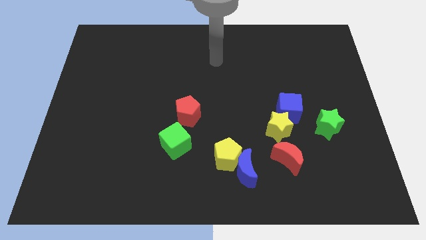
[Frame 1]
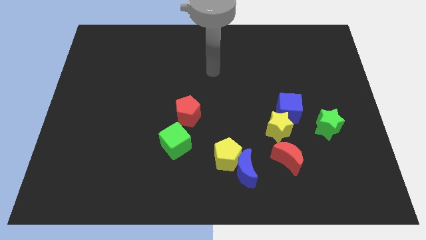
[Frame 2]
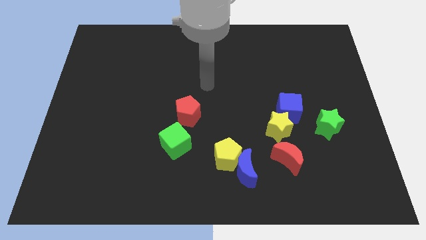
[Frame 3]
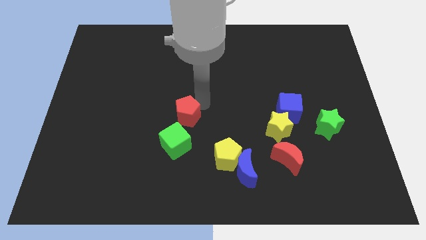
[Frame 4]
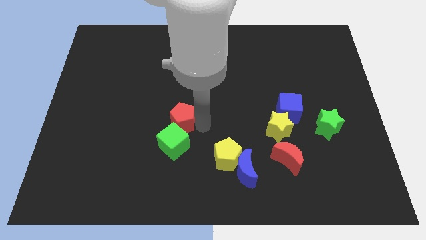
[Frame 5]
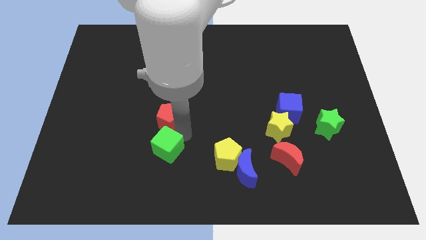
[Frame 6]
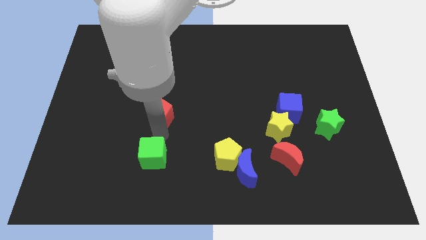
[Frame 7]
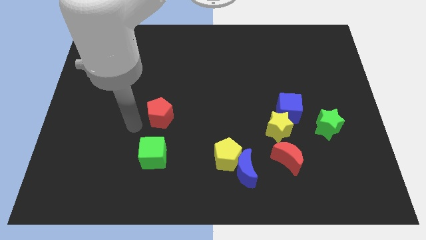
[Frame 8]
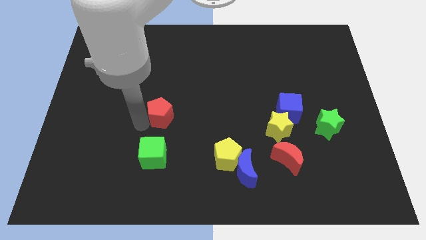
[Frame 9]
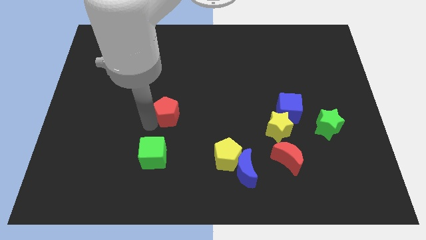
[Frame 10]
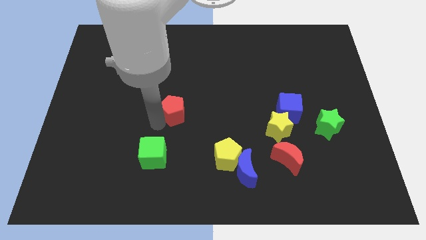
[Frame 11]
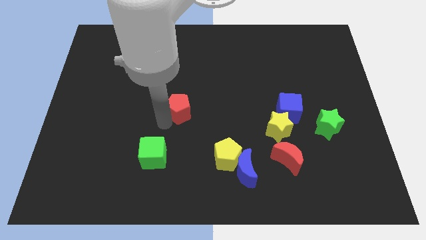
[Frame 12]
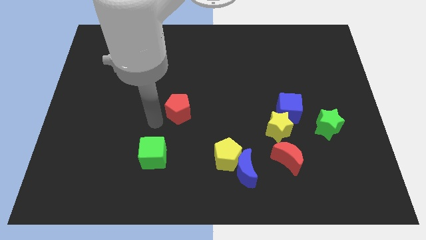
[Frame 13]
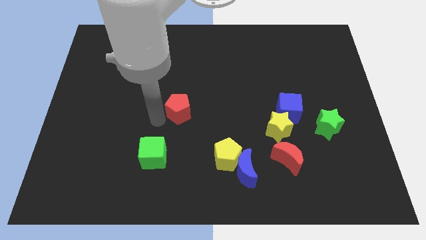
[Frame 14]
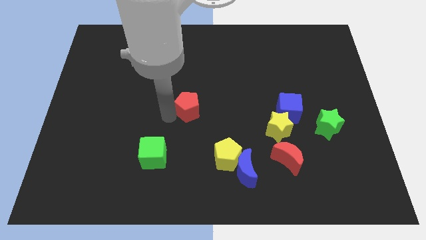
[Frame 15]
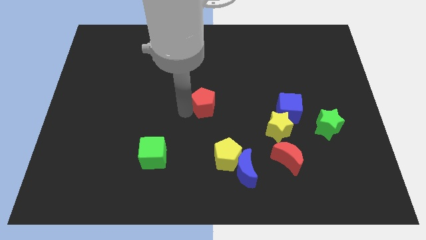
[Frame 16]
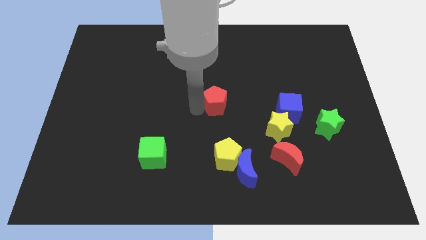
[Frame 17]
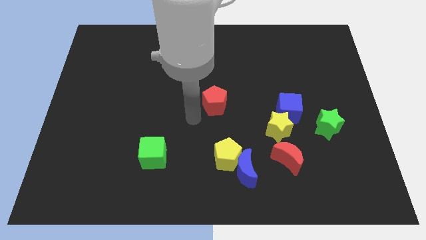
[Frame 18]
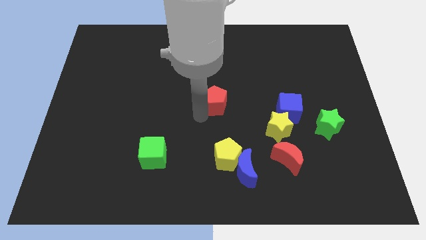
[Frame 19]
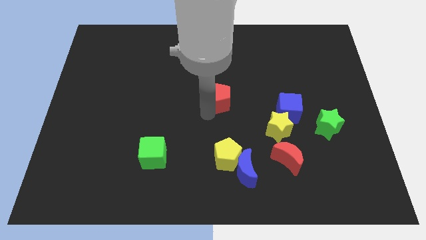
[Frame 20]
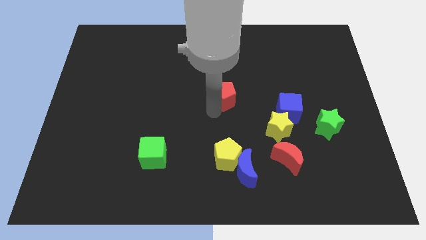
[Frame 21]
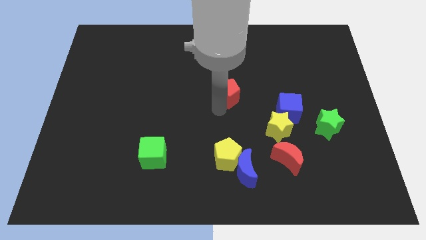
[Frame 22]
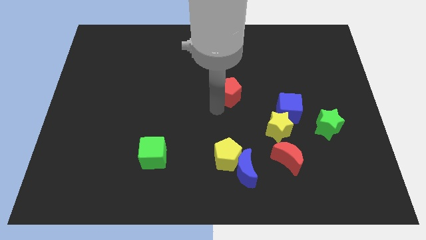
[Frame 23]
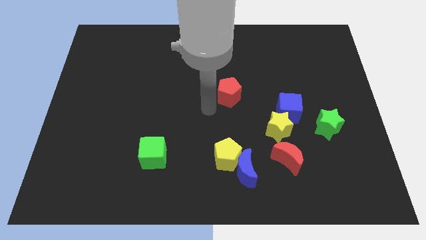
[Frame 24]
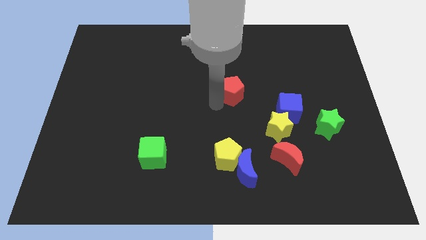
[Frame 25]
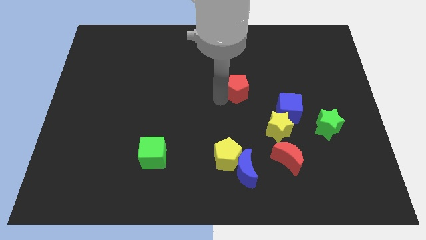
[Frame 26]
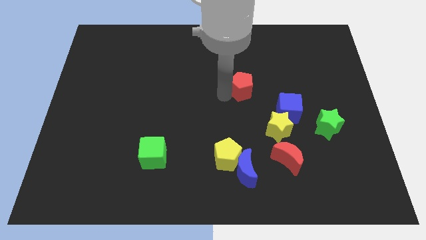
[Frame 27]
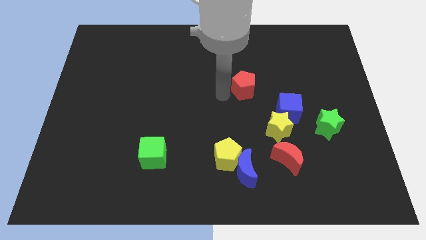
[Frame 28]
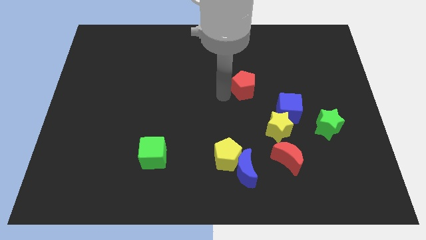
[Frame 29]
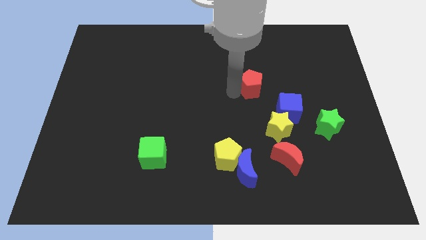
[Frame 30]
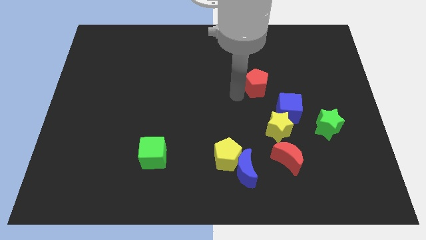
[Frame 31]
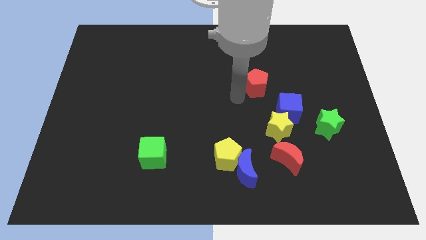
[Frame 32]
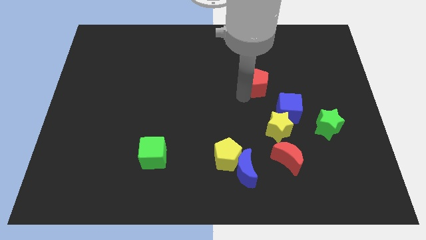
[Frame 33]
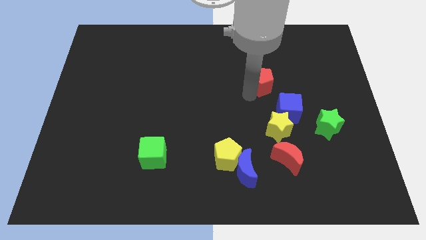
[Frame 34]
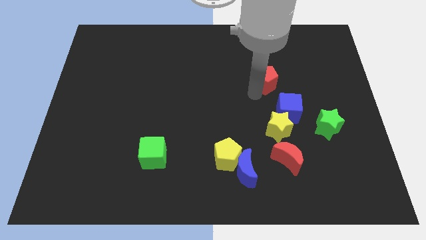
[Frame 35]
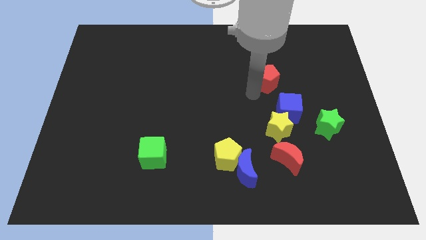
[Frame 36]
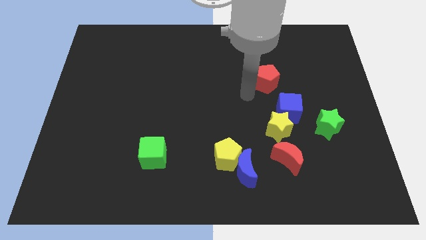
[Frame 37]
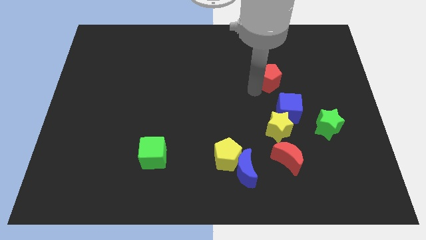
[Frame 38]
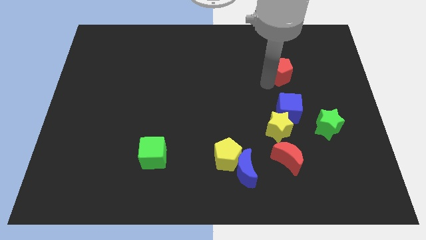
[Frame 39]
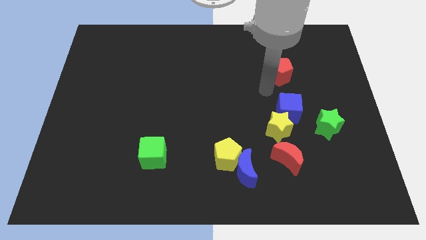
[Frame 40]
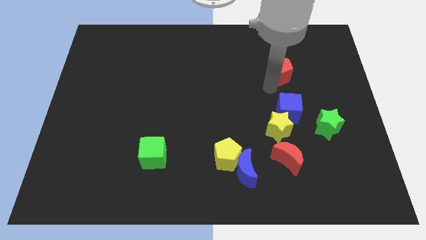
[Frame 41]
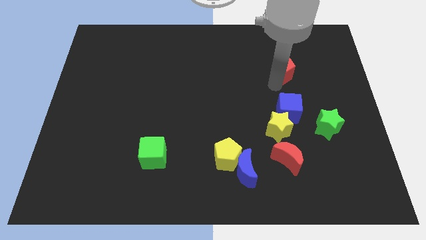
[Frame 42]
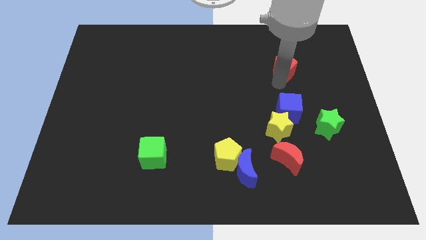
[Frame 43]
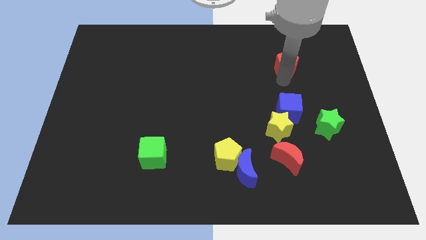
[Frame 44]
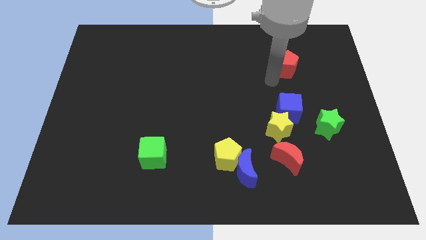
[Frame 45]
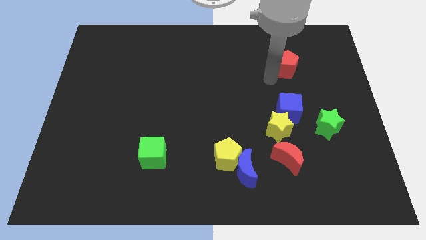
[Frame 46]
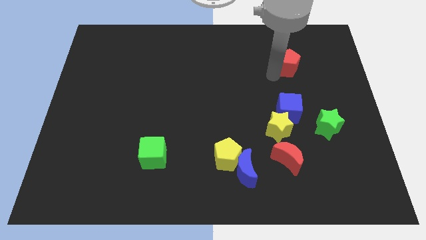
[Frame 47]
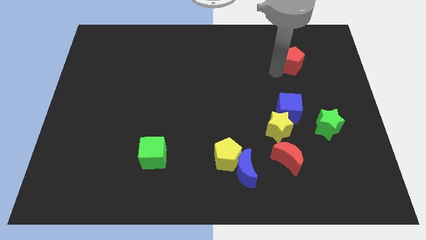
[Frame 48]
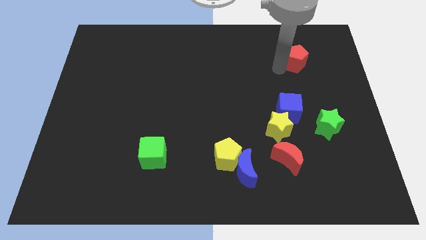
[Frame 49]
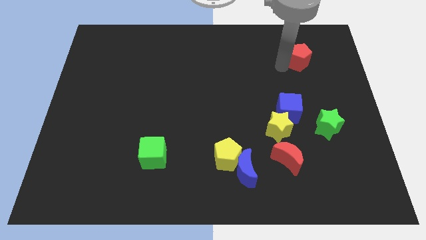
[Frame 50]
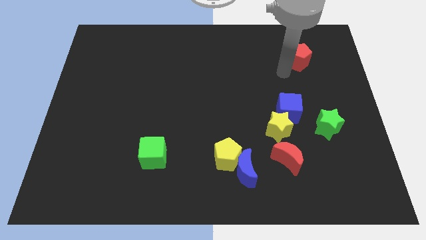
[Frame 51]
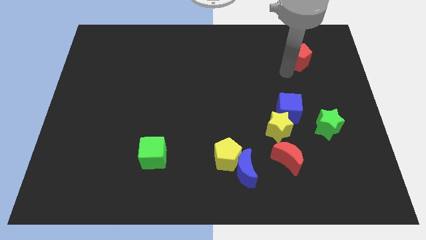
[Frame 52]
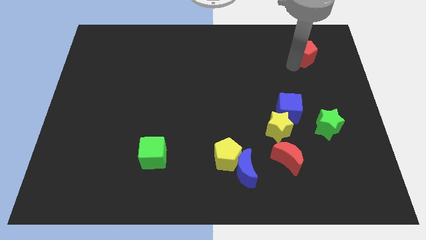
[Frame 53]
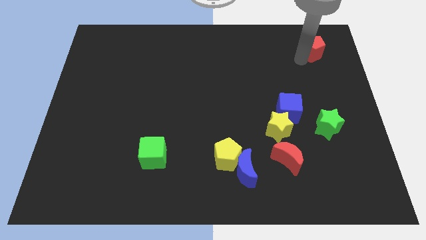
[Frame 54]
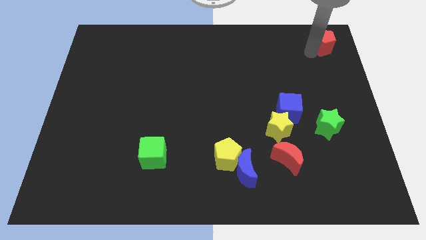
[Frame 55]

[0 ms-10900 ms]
slide the red pentagon to the upper right corner
